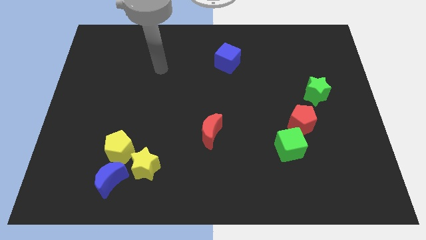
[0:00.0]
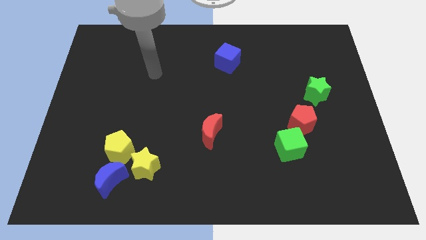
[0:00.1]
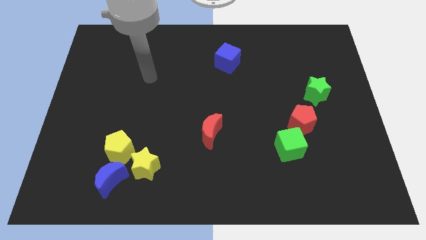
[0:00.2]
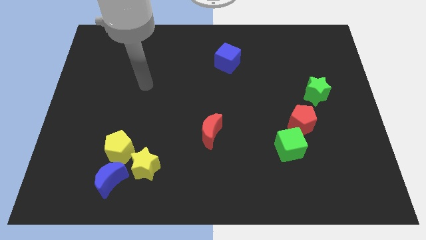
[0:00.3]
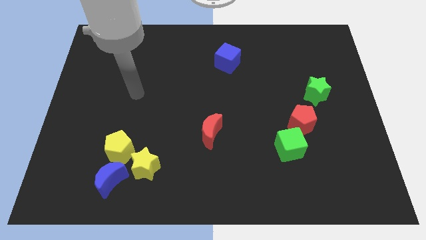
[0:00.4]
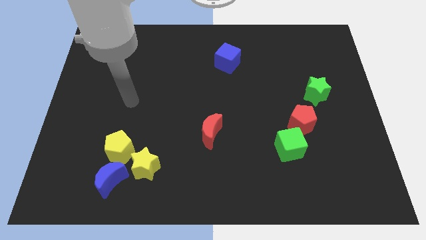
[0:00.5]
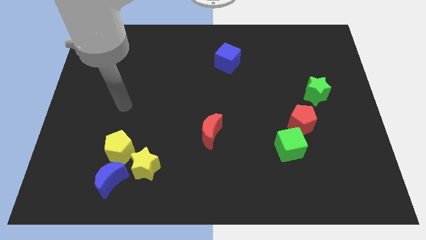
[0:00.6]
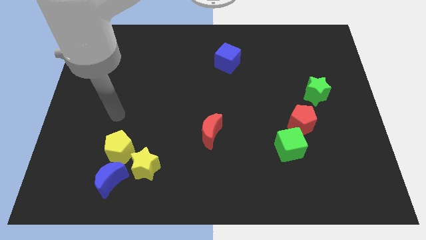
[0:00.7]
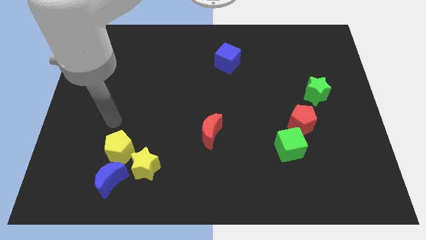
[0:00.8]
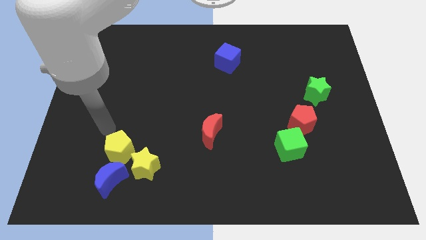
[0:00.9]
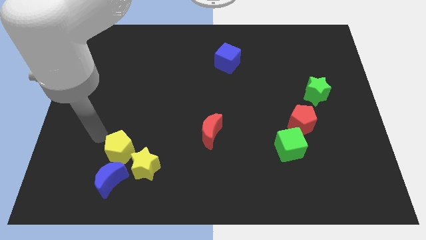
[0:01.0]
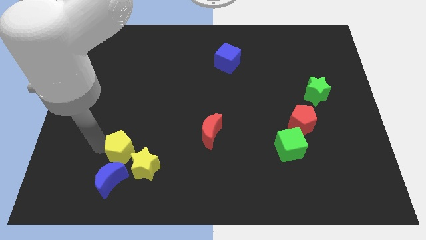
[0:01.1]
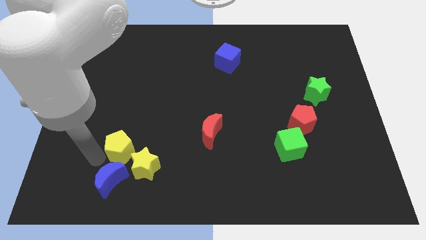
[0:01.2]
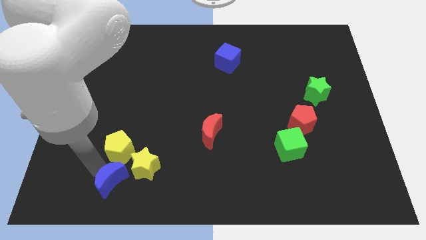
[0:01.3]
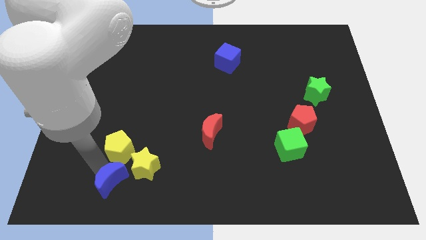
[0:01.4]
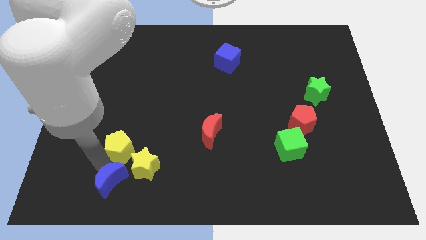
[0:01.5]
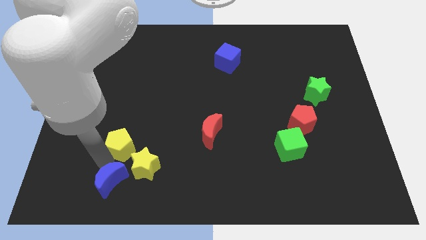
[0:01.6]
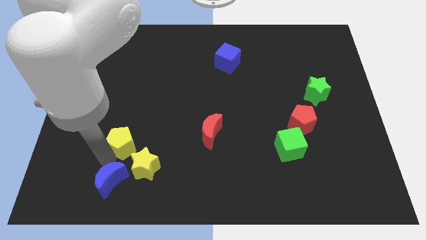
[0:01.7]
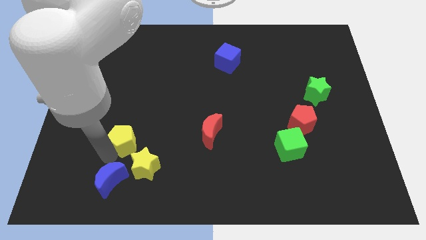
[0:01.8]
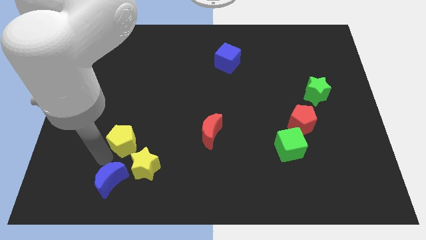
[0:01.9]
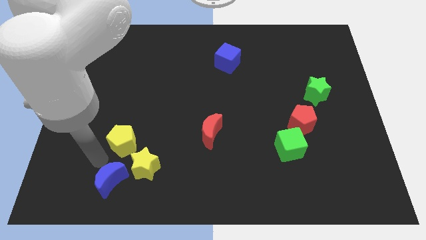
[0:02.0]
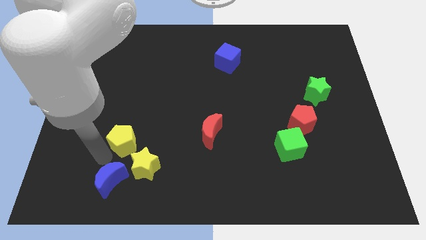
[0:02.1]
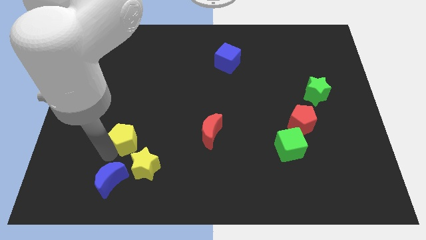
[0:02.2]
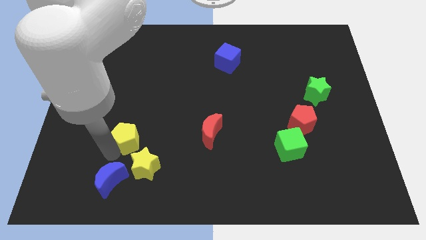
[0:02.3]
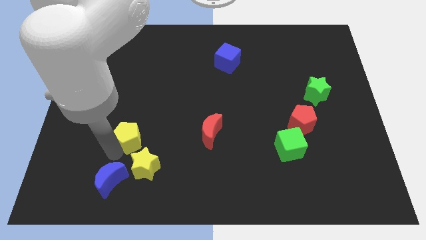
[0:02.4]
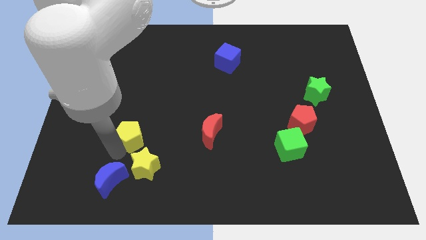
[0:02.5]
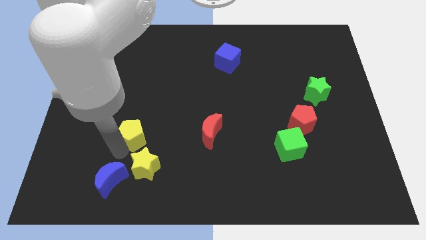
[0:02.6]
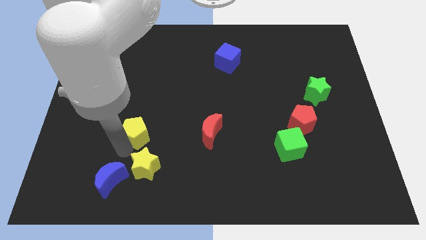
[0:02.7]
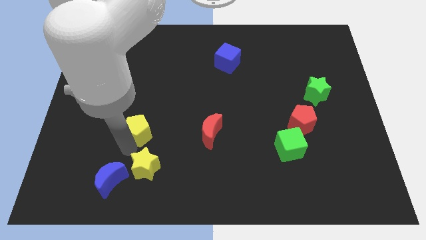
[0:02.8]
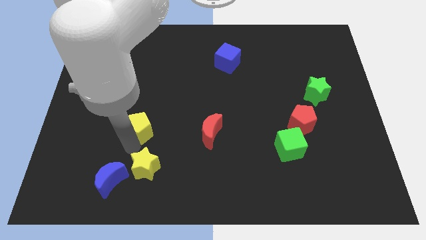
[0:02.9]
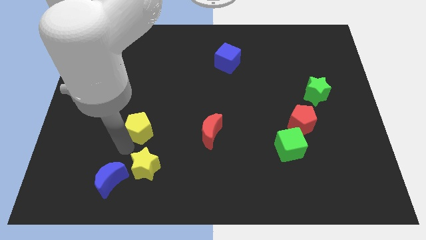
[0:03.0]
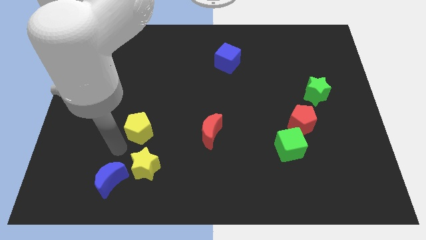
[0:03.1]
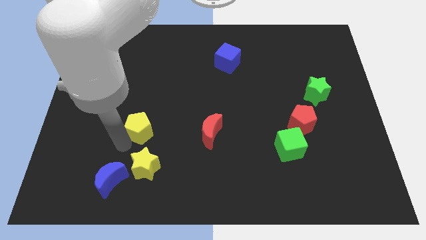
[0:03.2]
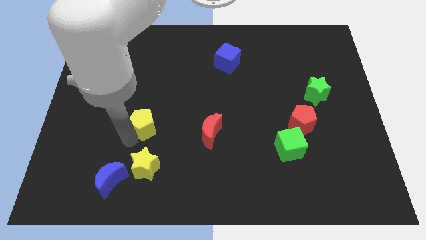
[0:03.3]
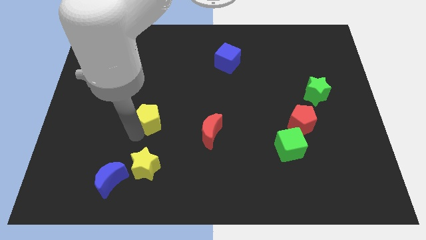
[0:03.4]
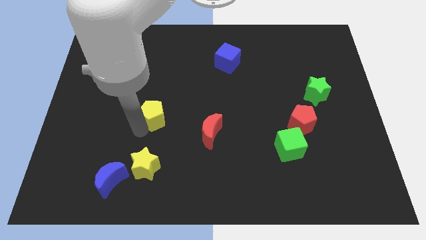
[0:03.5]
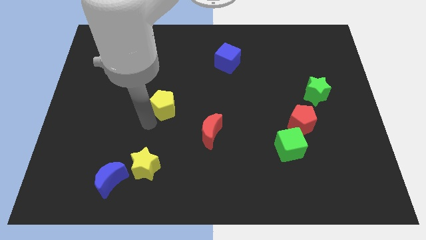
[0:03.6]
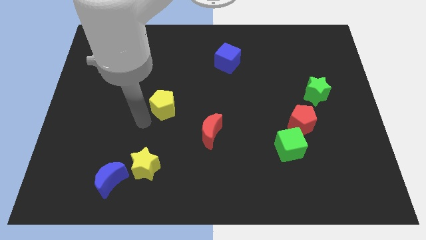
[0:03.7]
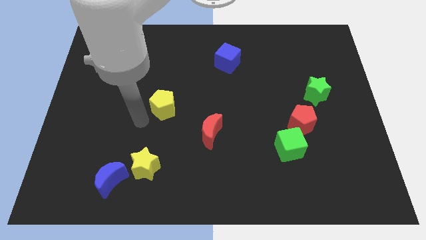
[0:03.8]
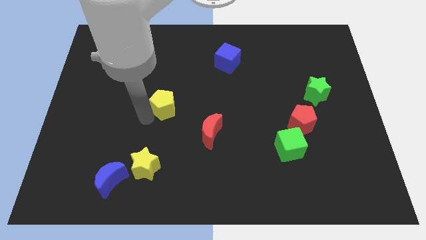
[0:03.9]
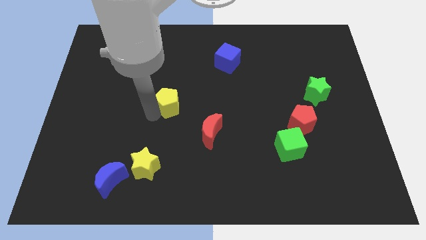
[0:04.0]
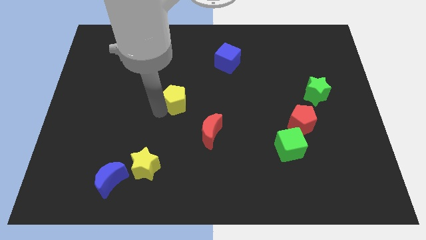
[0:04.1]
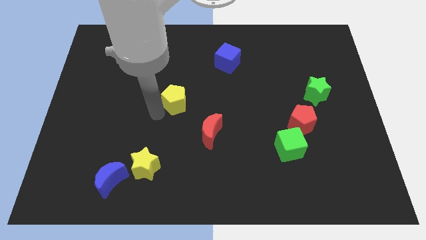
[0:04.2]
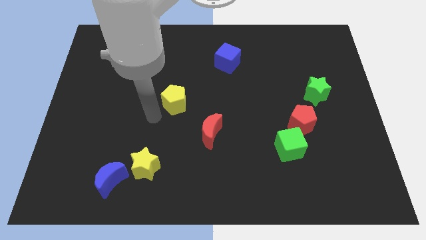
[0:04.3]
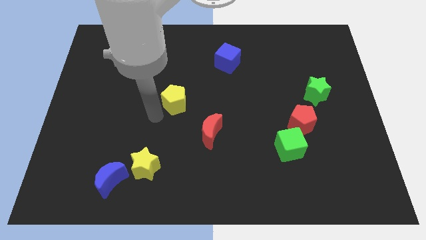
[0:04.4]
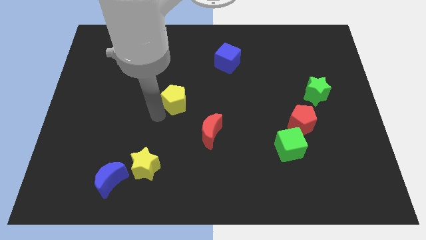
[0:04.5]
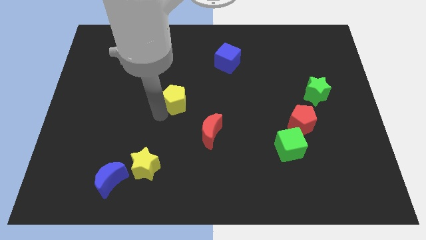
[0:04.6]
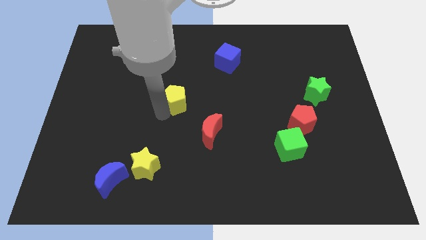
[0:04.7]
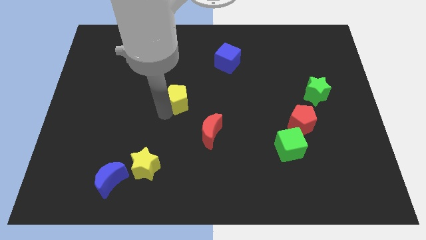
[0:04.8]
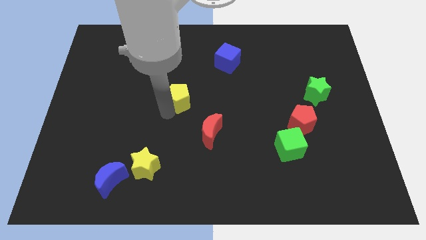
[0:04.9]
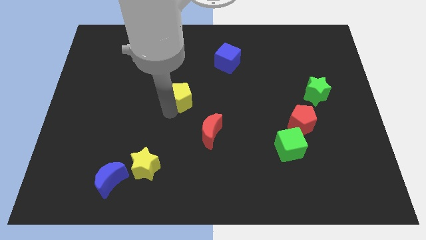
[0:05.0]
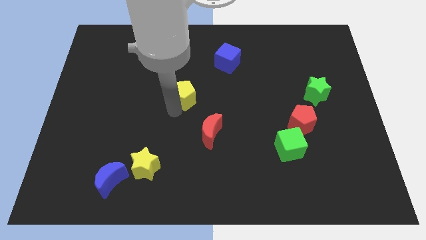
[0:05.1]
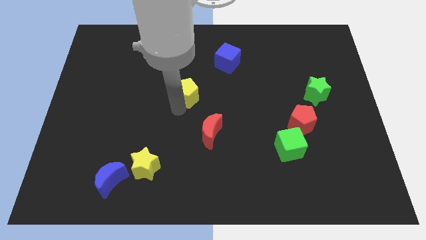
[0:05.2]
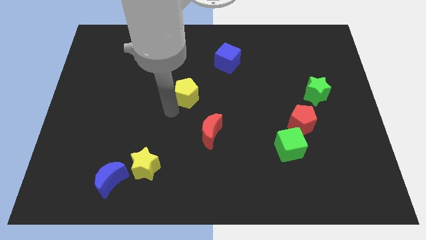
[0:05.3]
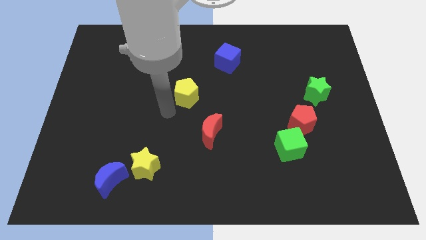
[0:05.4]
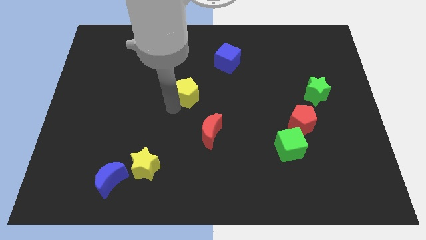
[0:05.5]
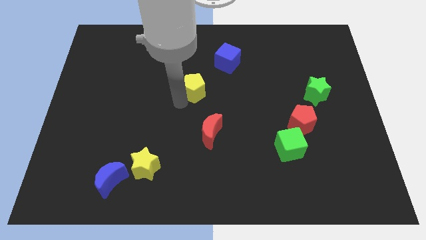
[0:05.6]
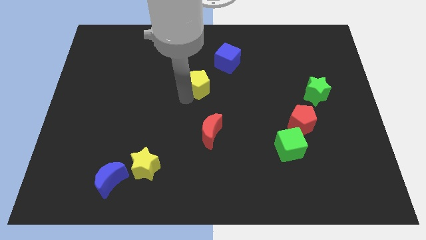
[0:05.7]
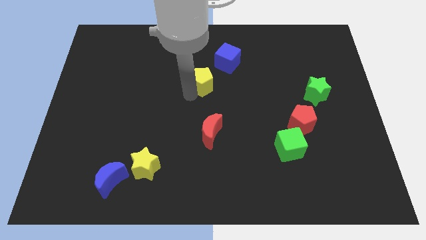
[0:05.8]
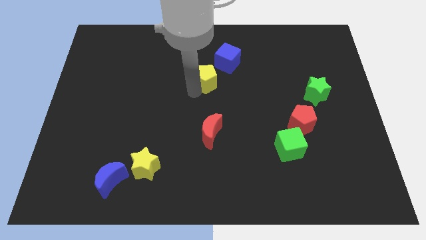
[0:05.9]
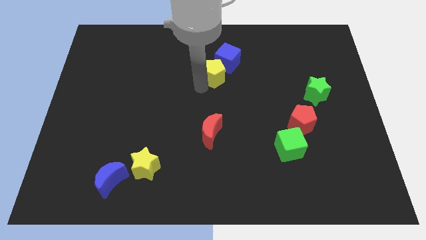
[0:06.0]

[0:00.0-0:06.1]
put the yellow pentagon next to the blue cube

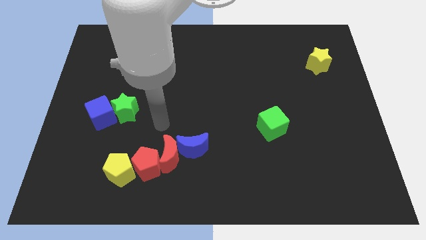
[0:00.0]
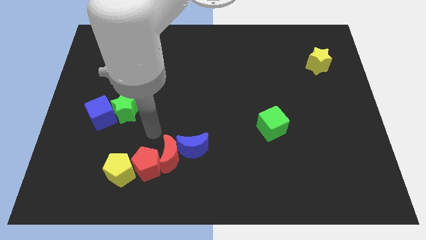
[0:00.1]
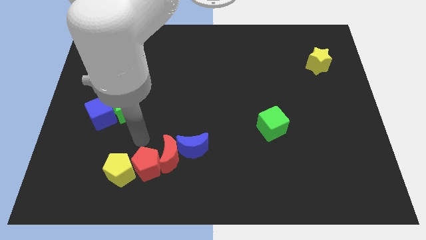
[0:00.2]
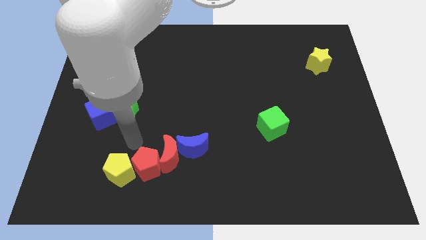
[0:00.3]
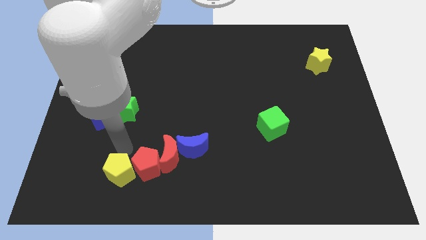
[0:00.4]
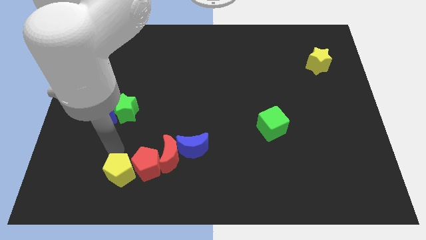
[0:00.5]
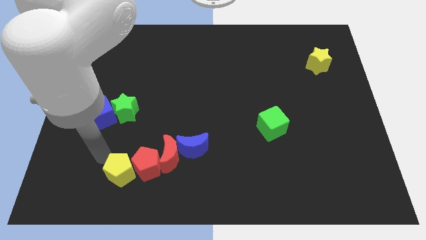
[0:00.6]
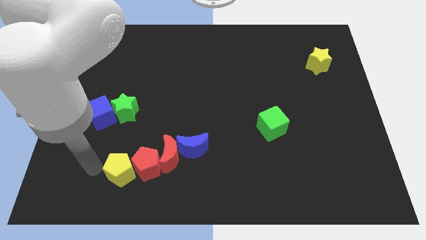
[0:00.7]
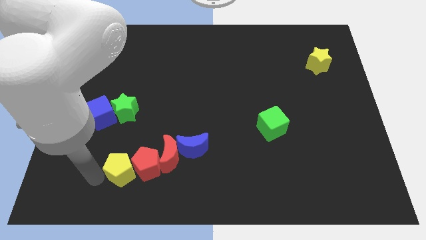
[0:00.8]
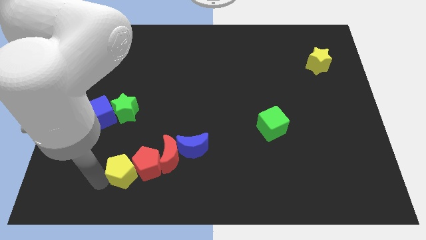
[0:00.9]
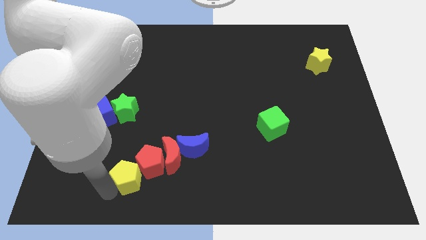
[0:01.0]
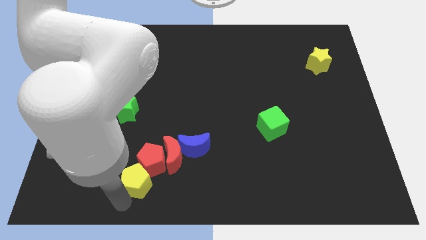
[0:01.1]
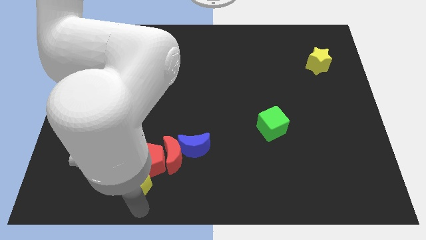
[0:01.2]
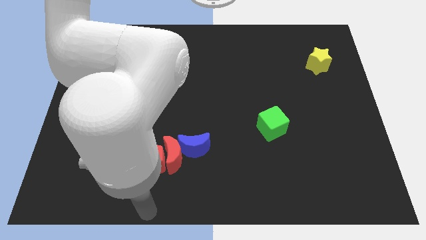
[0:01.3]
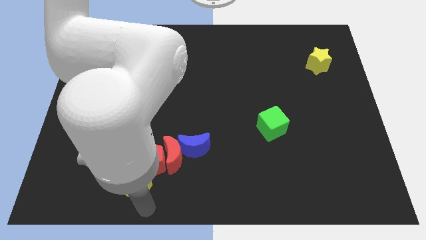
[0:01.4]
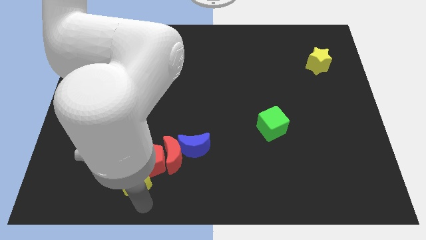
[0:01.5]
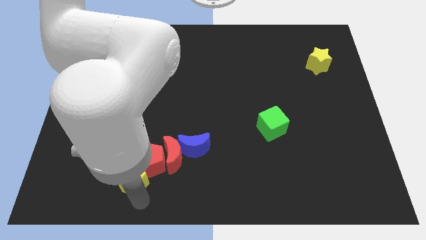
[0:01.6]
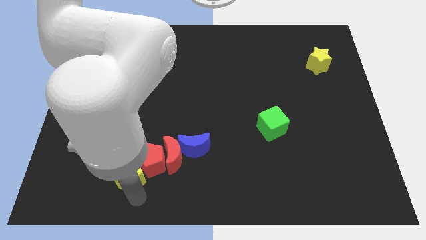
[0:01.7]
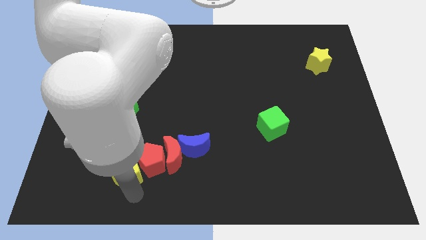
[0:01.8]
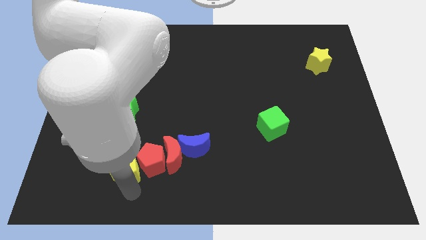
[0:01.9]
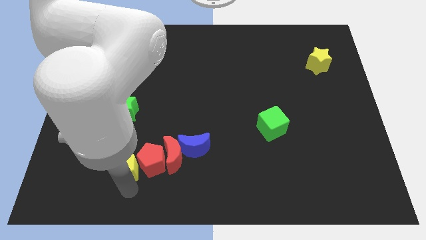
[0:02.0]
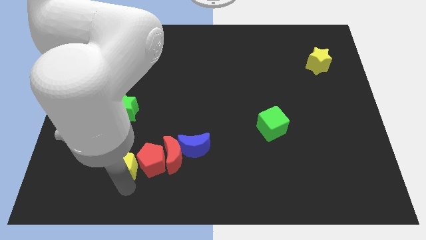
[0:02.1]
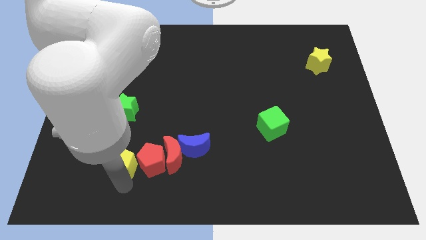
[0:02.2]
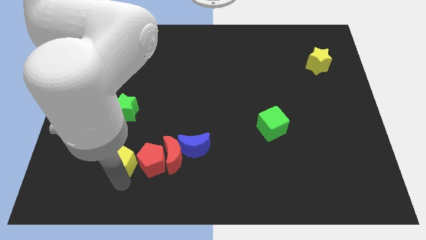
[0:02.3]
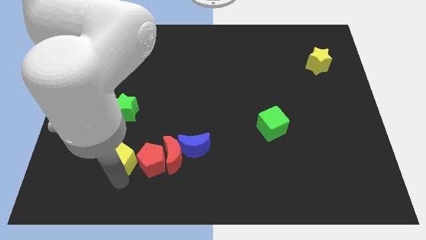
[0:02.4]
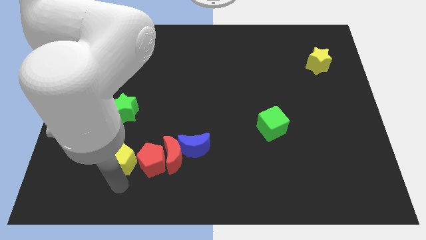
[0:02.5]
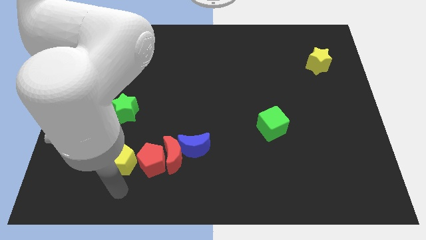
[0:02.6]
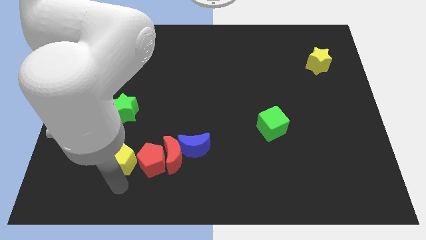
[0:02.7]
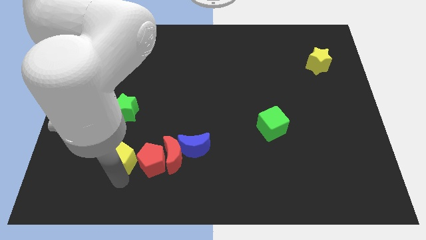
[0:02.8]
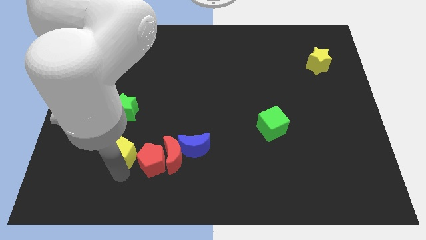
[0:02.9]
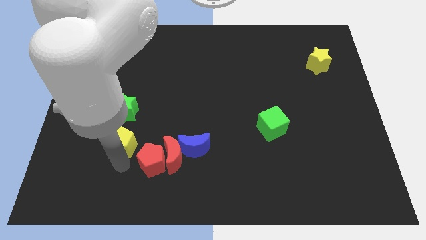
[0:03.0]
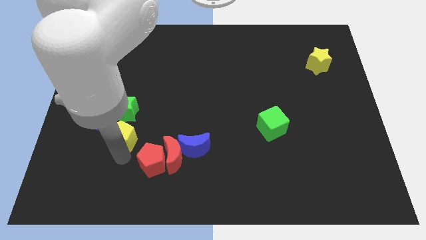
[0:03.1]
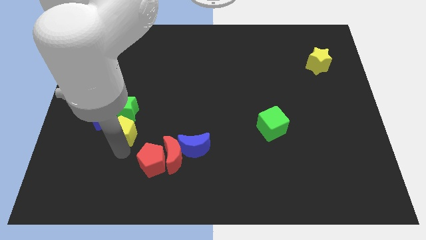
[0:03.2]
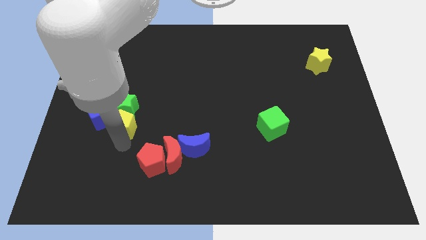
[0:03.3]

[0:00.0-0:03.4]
put the yellow pentagon next to the green star
